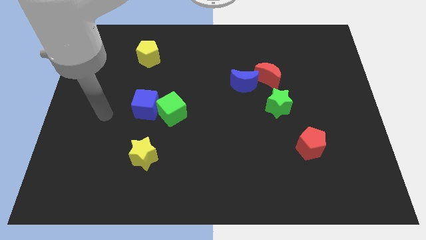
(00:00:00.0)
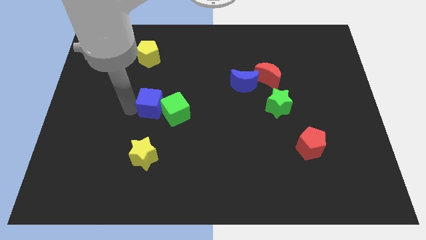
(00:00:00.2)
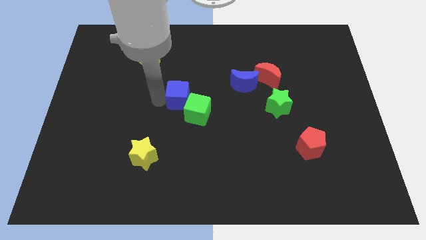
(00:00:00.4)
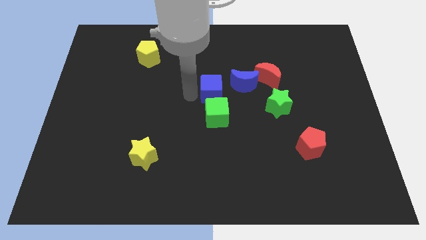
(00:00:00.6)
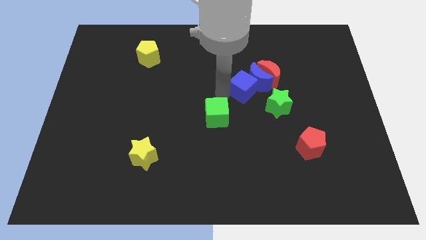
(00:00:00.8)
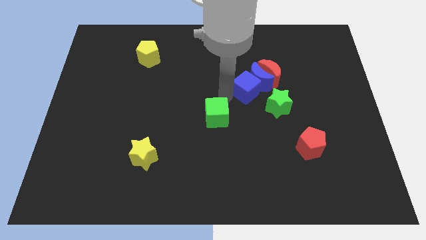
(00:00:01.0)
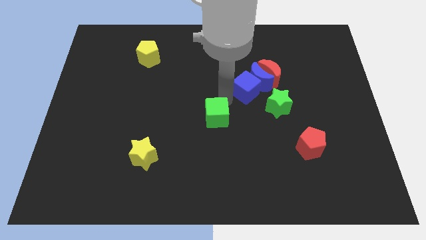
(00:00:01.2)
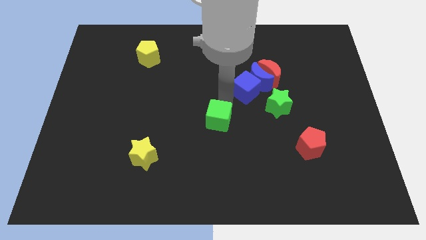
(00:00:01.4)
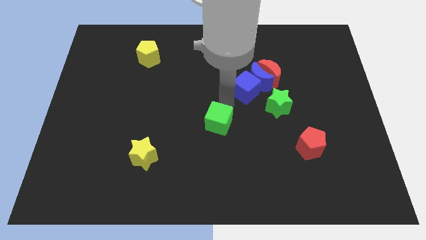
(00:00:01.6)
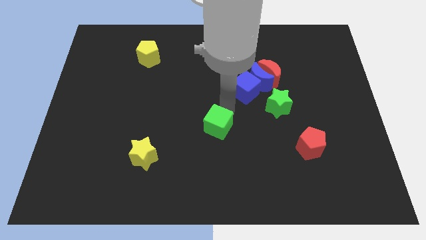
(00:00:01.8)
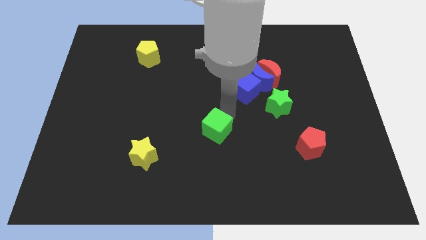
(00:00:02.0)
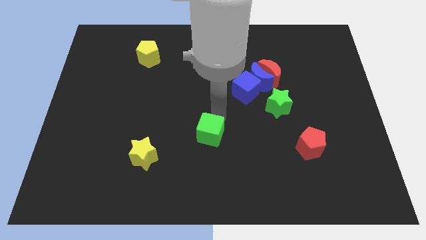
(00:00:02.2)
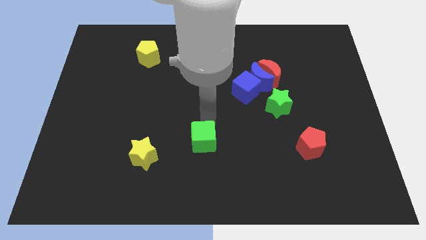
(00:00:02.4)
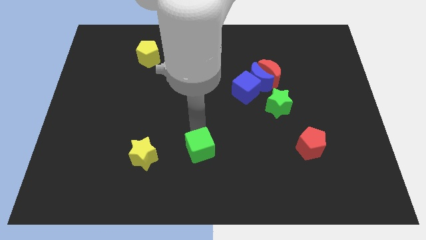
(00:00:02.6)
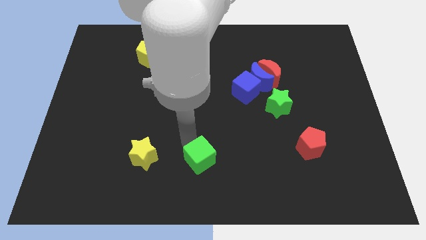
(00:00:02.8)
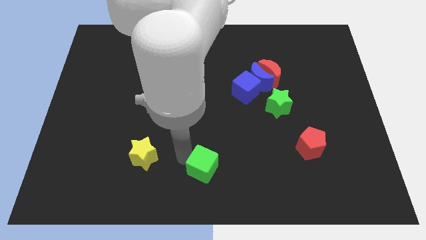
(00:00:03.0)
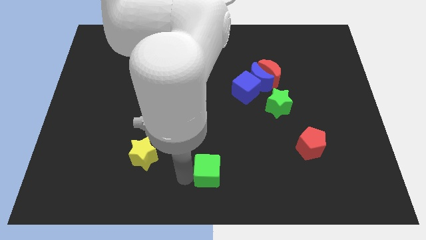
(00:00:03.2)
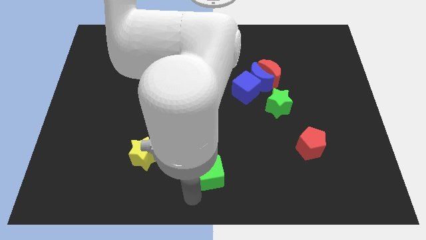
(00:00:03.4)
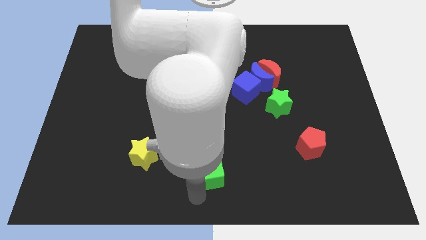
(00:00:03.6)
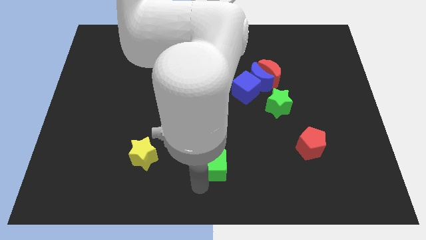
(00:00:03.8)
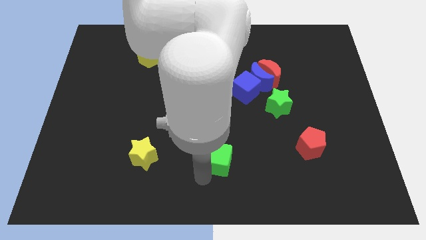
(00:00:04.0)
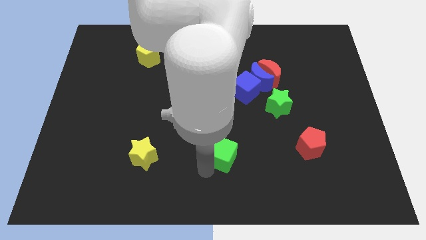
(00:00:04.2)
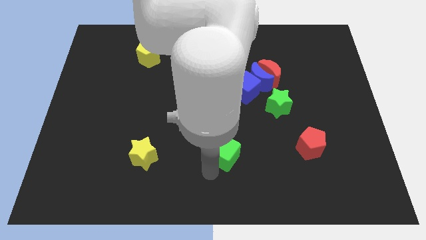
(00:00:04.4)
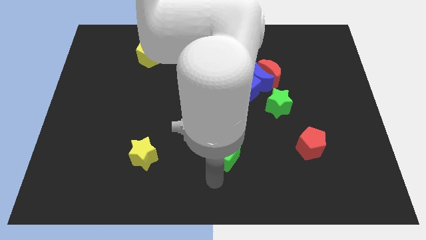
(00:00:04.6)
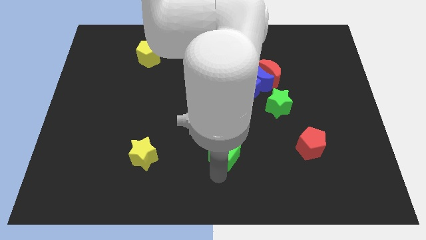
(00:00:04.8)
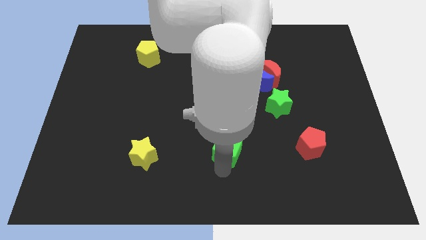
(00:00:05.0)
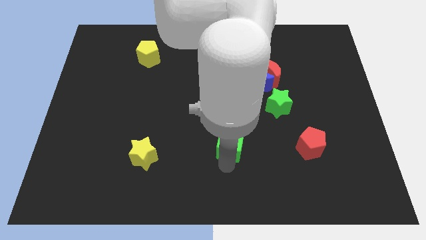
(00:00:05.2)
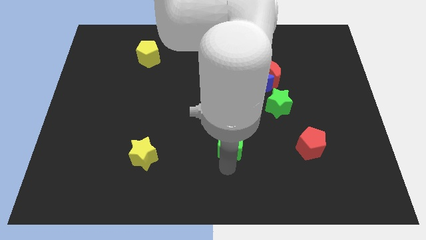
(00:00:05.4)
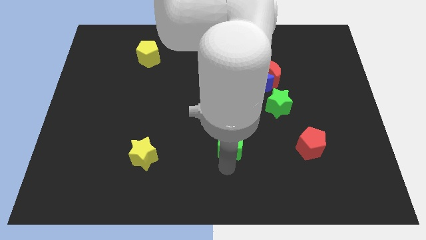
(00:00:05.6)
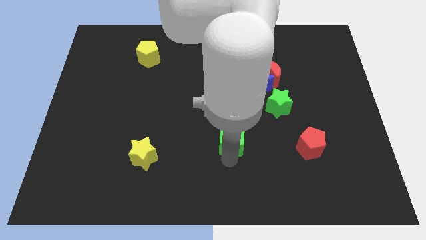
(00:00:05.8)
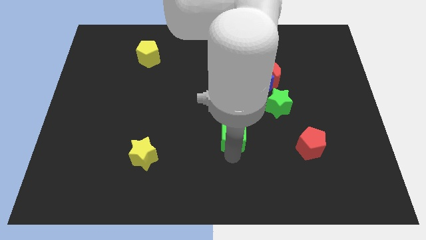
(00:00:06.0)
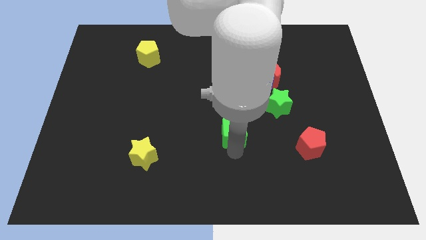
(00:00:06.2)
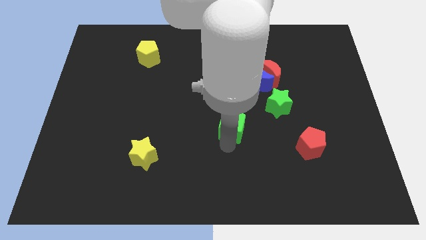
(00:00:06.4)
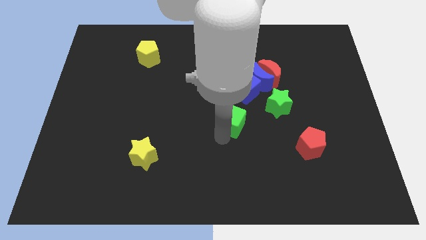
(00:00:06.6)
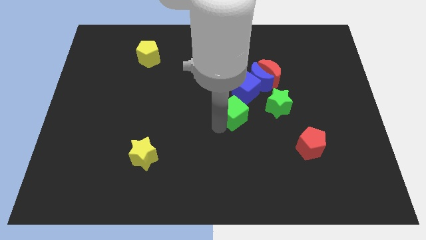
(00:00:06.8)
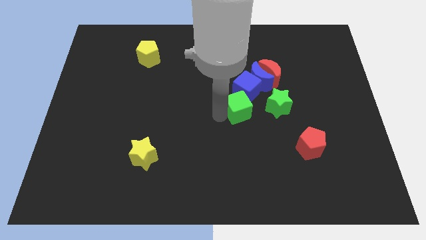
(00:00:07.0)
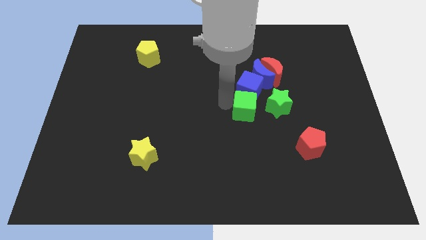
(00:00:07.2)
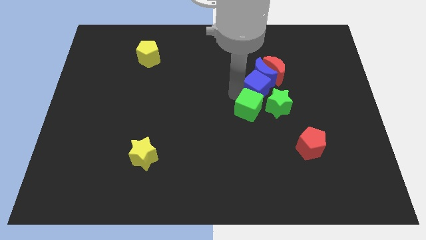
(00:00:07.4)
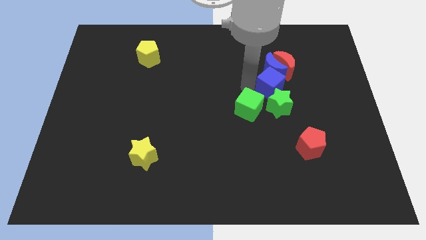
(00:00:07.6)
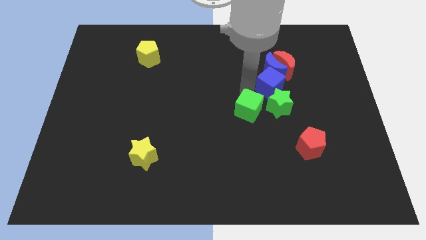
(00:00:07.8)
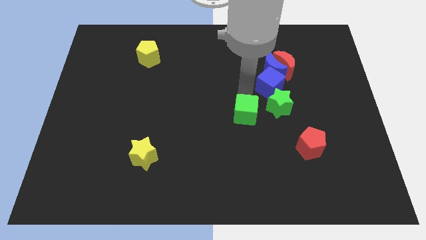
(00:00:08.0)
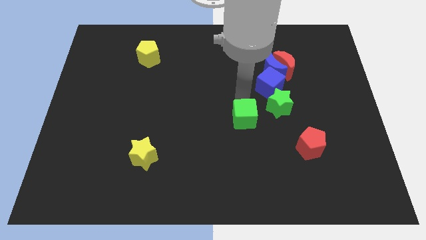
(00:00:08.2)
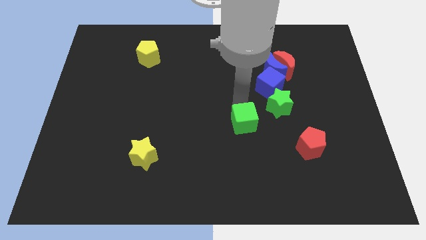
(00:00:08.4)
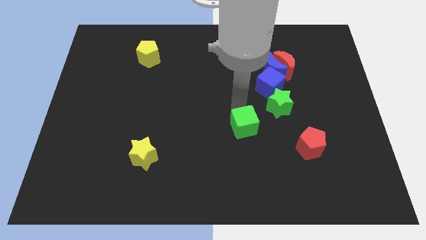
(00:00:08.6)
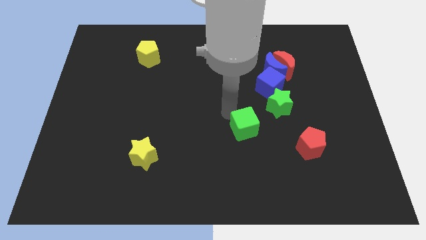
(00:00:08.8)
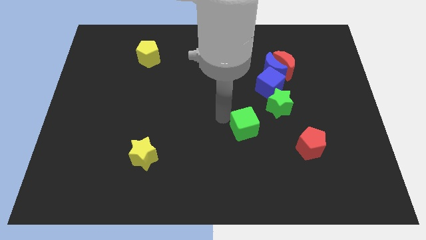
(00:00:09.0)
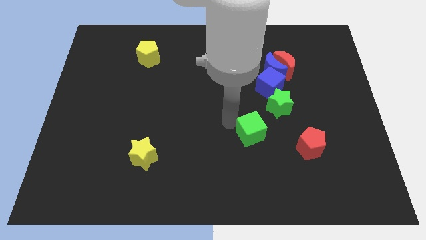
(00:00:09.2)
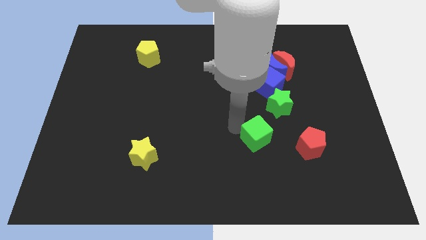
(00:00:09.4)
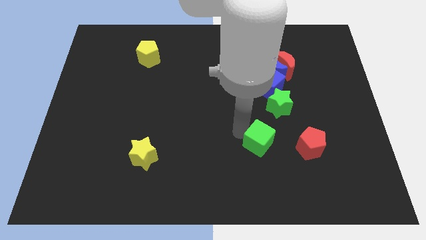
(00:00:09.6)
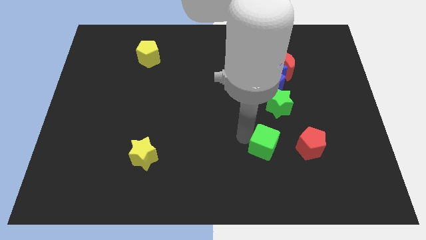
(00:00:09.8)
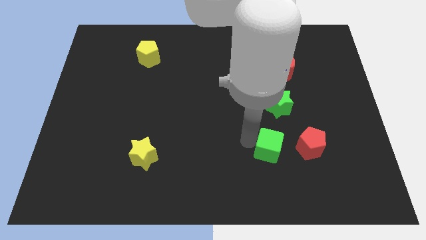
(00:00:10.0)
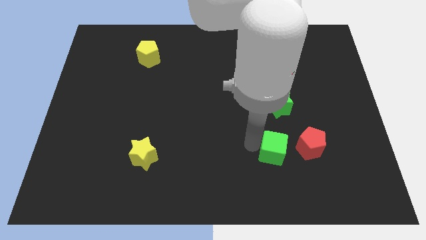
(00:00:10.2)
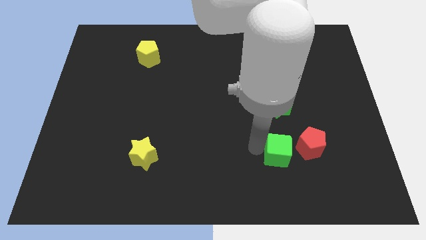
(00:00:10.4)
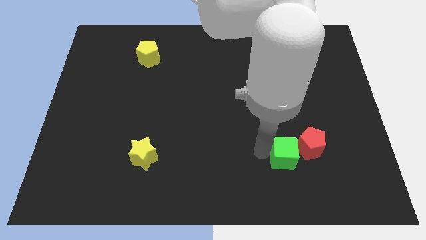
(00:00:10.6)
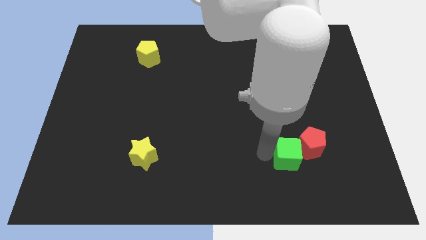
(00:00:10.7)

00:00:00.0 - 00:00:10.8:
move the green cube close to the red pentagon

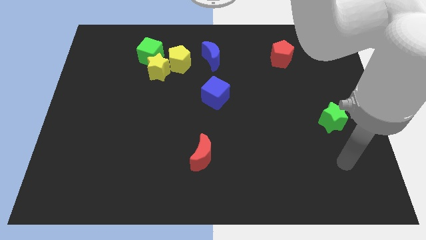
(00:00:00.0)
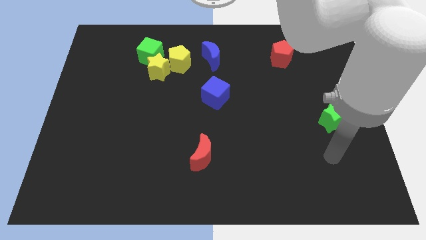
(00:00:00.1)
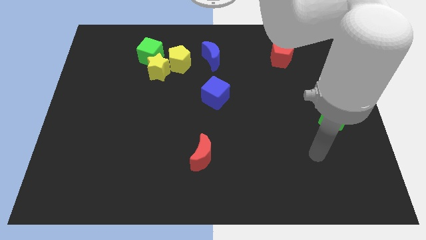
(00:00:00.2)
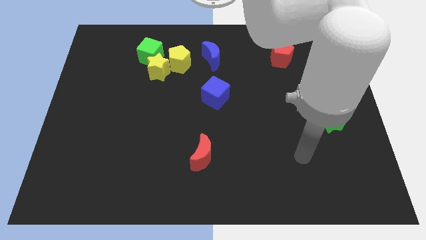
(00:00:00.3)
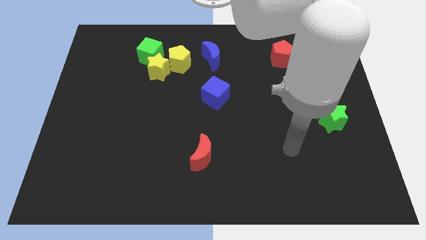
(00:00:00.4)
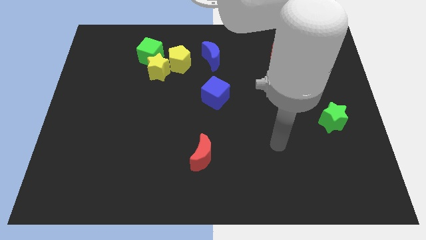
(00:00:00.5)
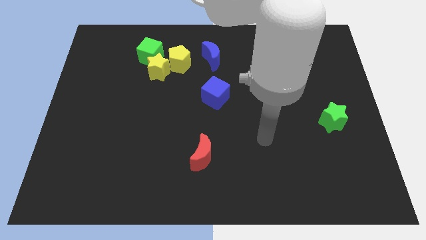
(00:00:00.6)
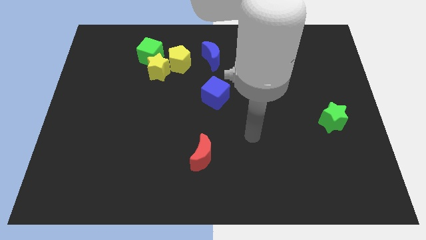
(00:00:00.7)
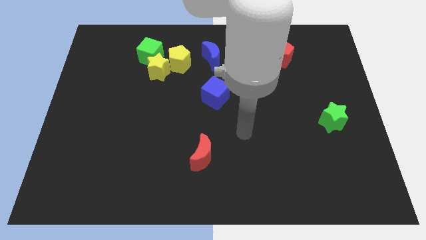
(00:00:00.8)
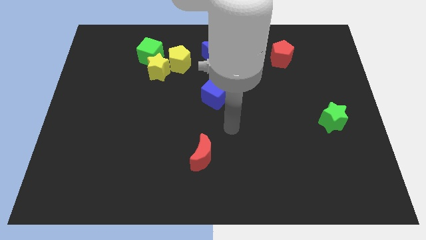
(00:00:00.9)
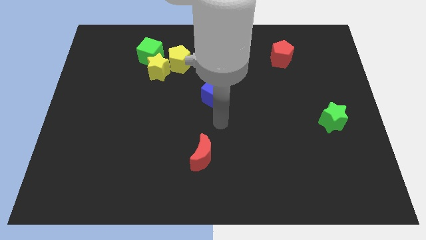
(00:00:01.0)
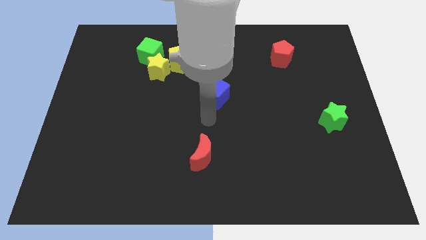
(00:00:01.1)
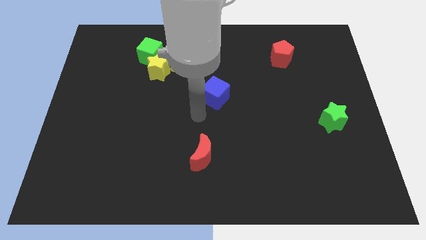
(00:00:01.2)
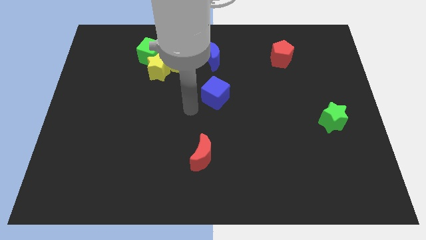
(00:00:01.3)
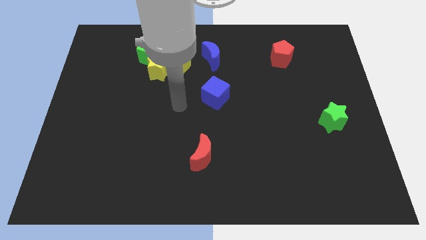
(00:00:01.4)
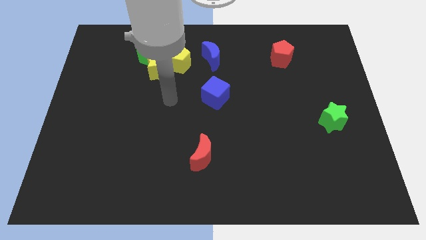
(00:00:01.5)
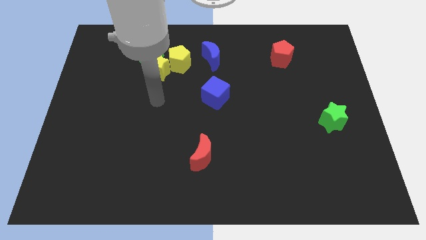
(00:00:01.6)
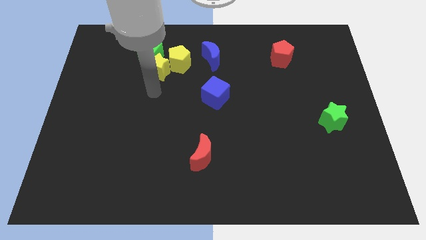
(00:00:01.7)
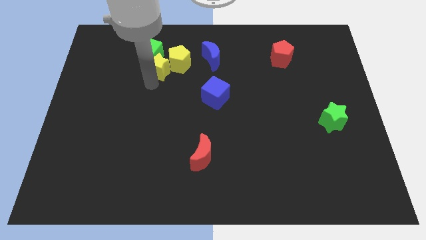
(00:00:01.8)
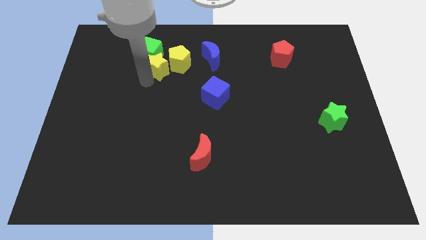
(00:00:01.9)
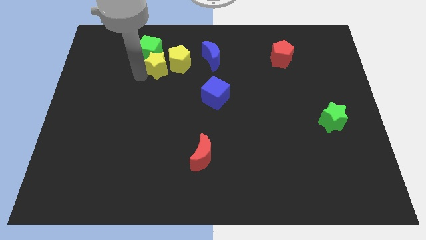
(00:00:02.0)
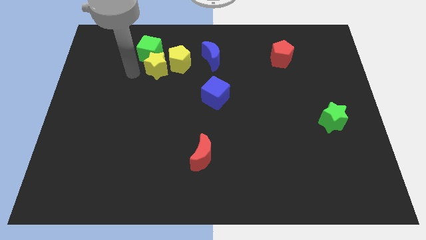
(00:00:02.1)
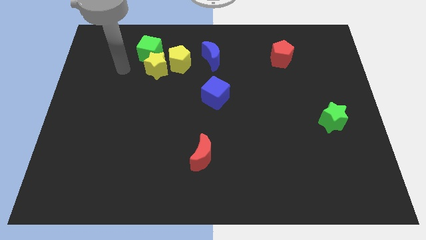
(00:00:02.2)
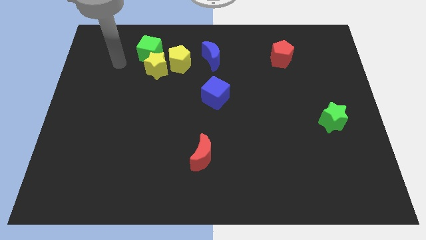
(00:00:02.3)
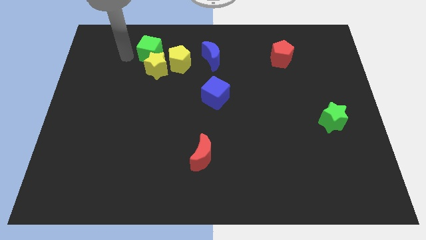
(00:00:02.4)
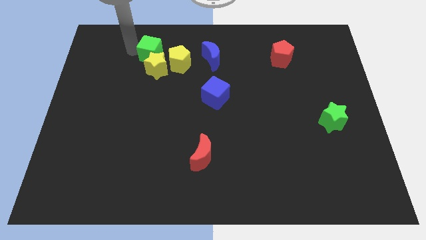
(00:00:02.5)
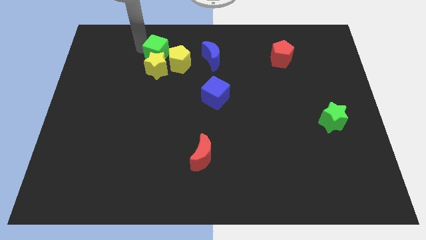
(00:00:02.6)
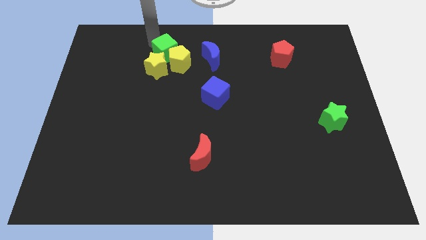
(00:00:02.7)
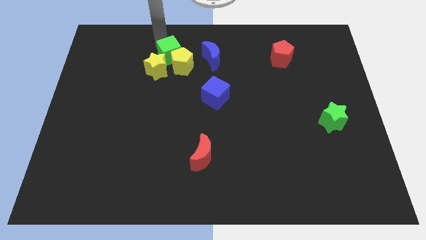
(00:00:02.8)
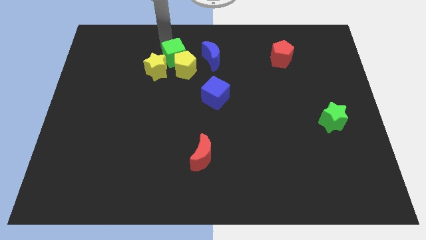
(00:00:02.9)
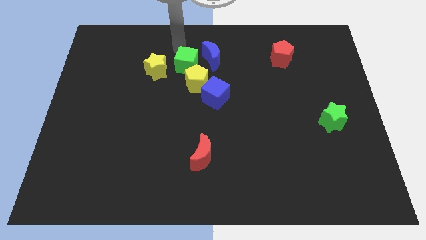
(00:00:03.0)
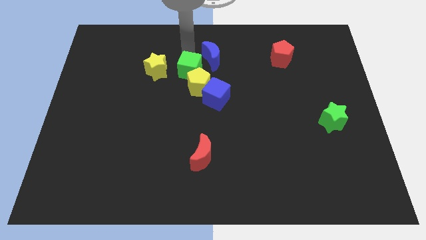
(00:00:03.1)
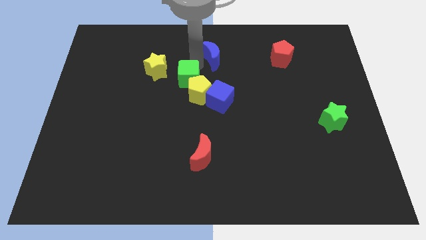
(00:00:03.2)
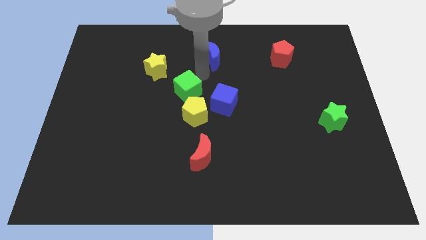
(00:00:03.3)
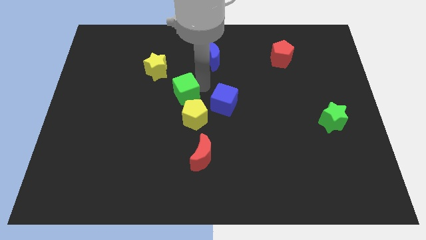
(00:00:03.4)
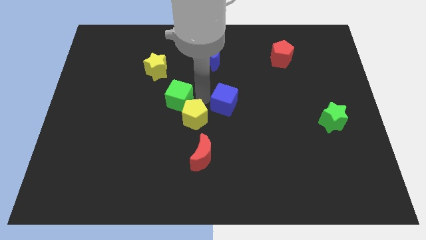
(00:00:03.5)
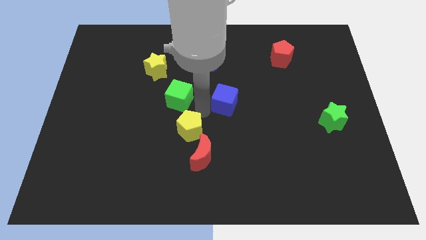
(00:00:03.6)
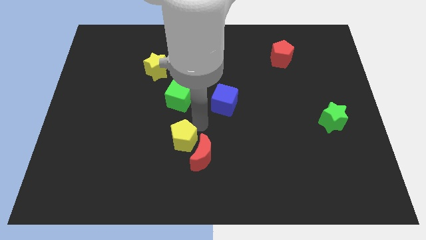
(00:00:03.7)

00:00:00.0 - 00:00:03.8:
put the yellow pentagon next to the red moon
